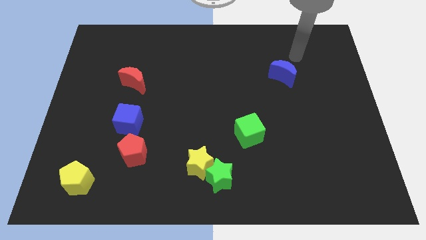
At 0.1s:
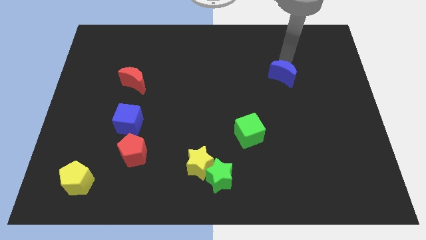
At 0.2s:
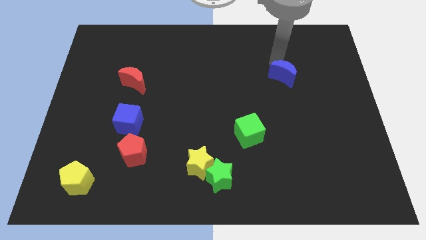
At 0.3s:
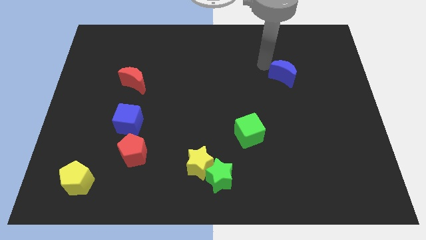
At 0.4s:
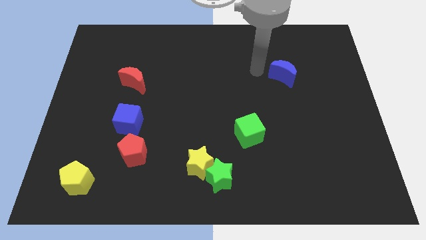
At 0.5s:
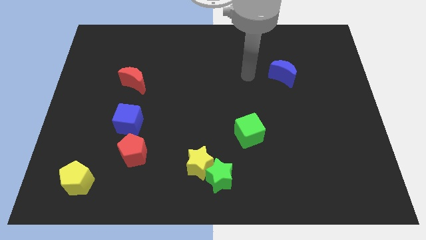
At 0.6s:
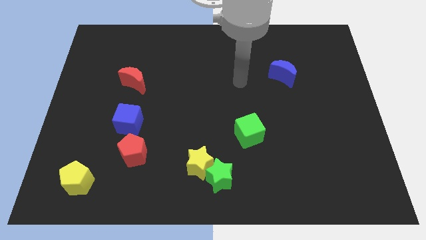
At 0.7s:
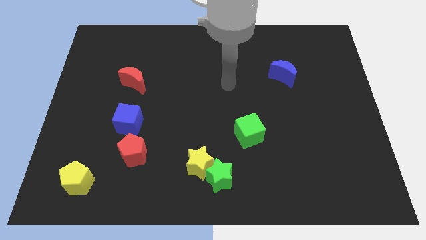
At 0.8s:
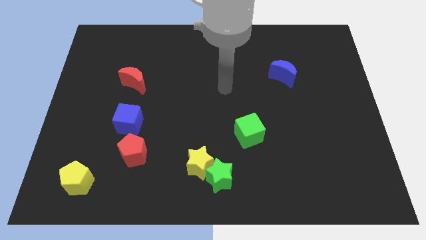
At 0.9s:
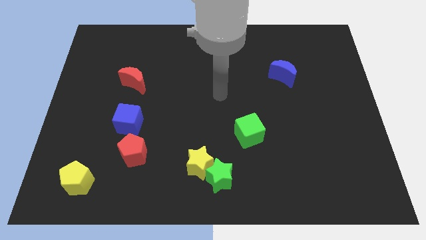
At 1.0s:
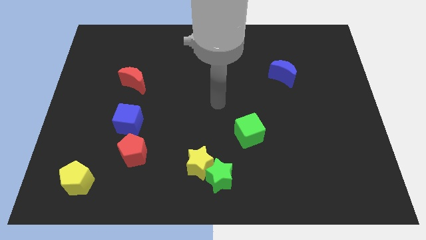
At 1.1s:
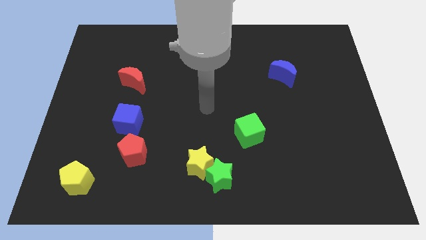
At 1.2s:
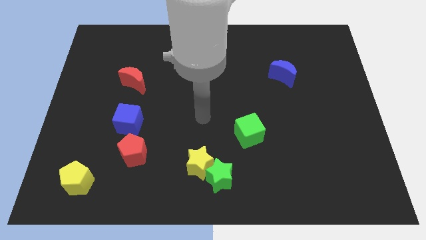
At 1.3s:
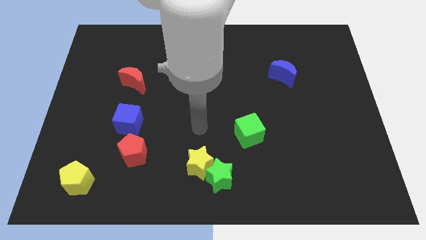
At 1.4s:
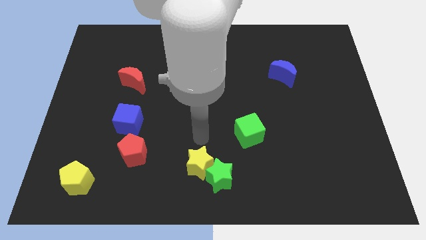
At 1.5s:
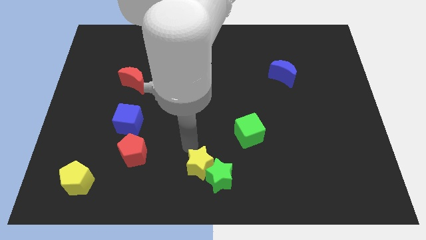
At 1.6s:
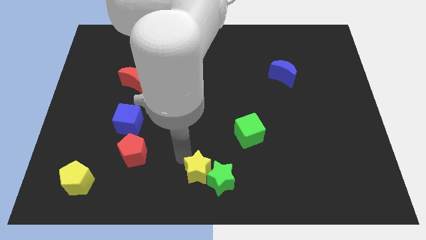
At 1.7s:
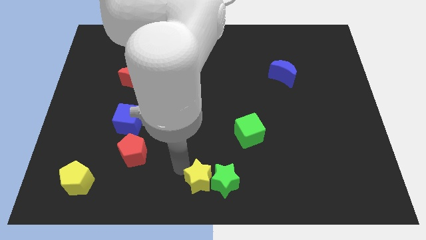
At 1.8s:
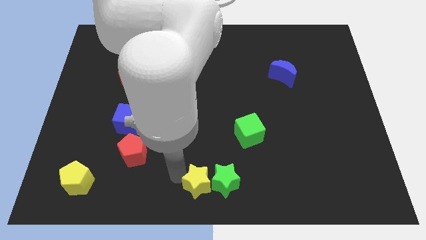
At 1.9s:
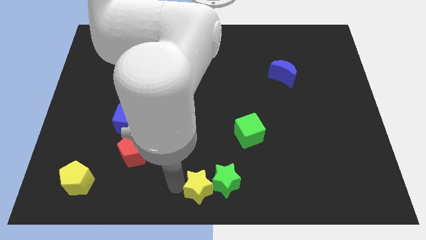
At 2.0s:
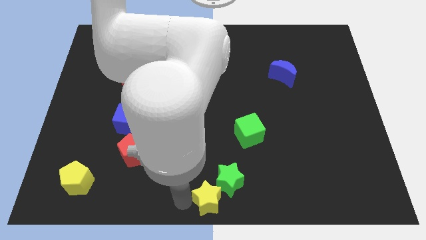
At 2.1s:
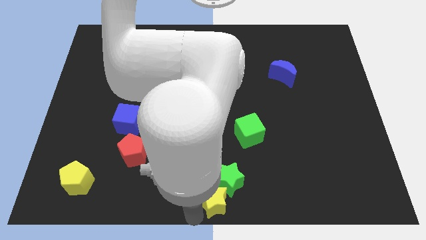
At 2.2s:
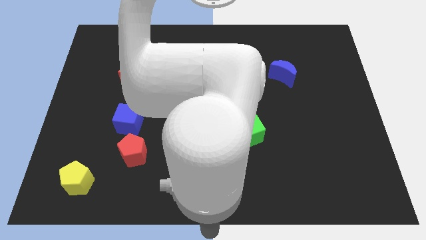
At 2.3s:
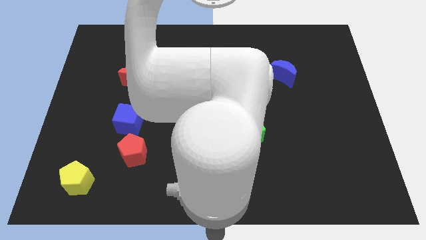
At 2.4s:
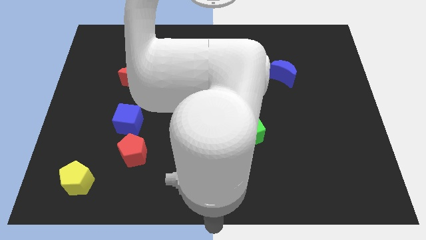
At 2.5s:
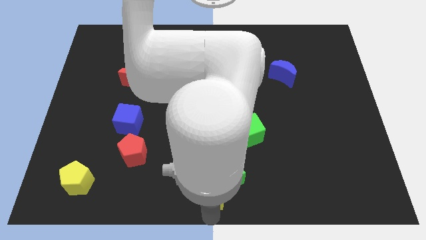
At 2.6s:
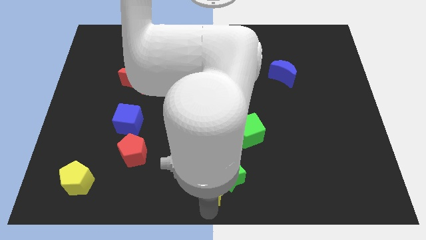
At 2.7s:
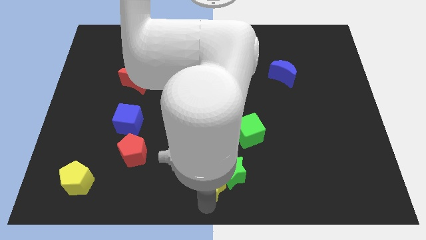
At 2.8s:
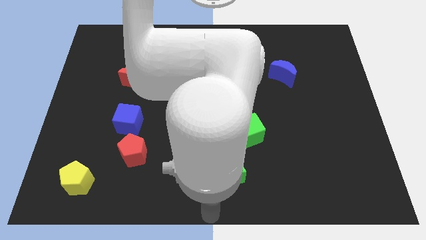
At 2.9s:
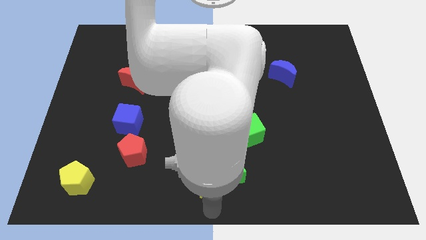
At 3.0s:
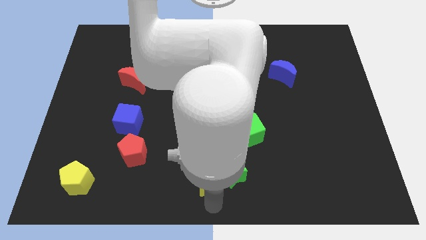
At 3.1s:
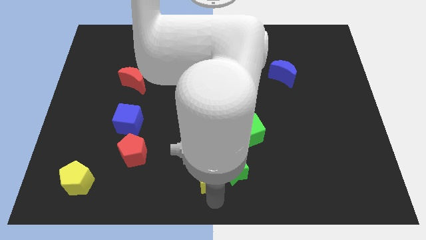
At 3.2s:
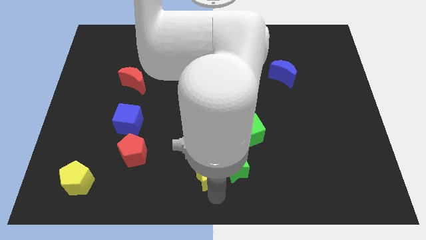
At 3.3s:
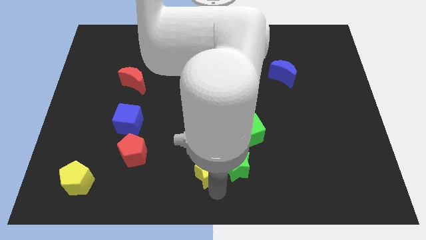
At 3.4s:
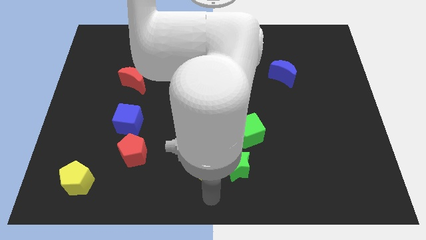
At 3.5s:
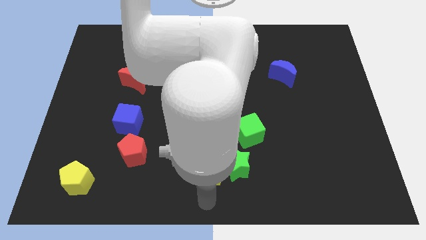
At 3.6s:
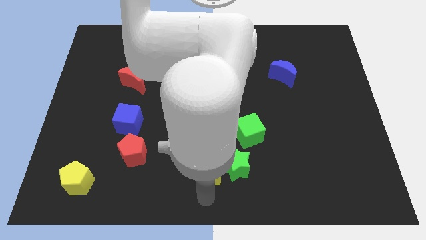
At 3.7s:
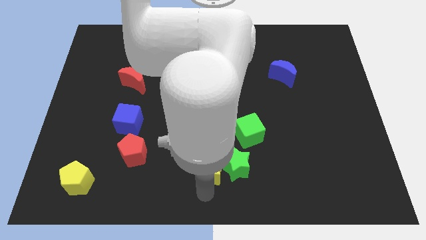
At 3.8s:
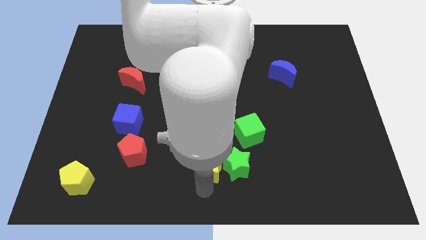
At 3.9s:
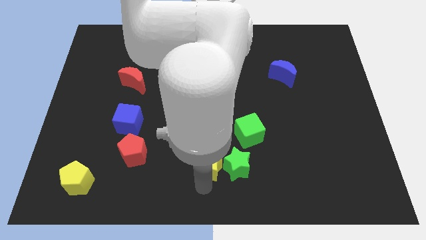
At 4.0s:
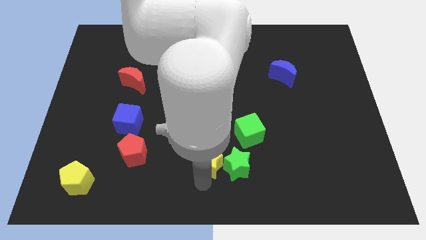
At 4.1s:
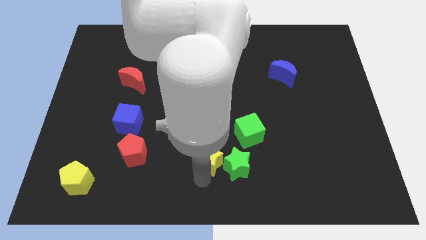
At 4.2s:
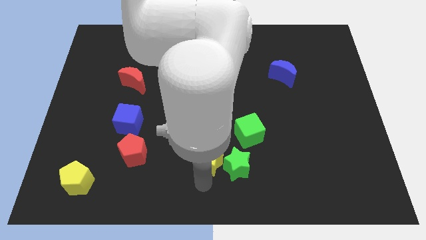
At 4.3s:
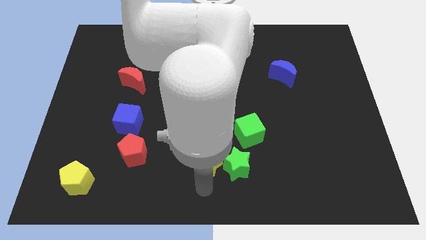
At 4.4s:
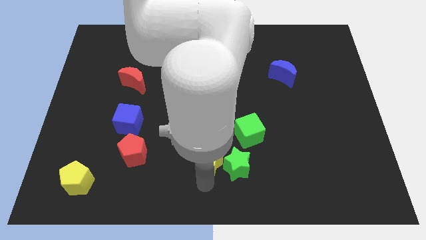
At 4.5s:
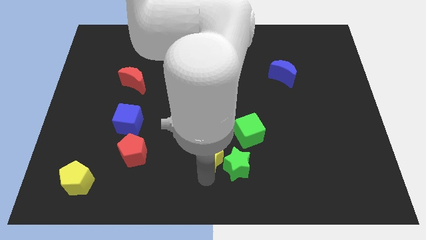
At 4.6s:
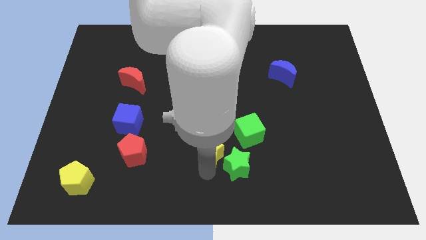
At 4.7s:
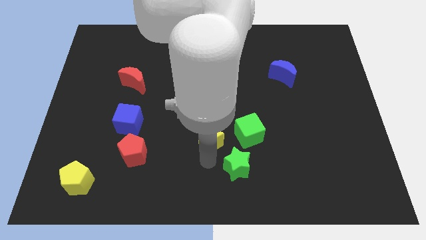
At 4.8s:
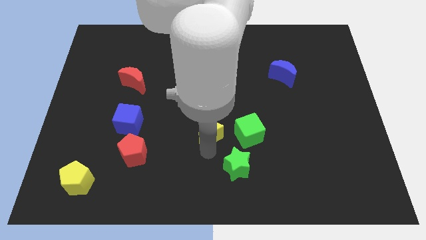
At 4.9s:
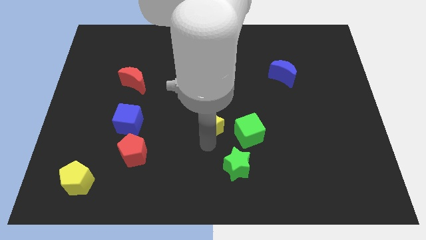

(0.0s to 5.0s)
put the yellow star to the top left side of the green cube

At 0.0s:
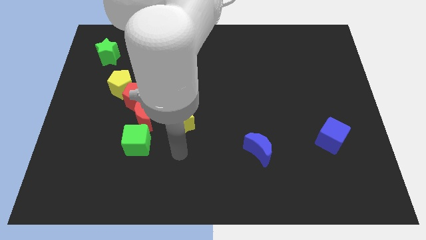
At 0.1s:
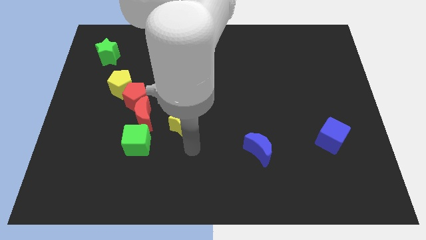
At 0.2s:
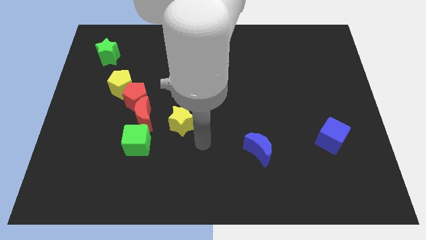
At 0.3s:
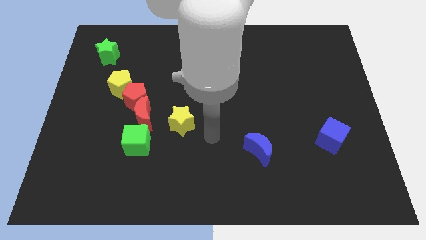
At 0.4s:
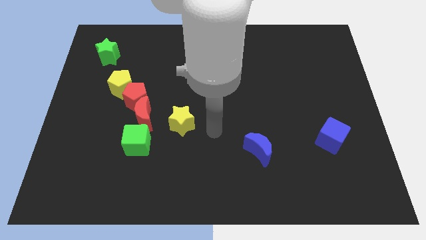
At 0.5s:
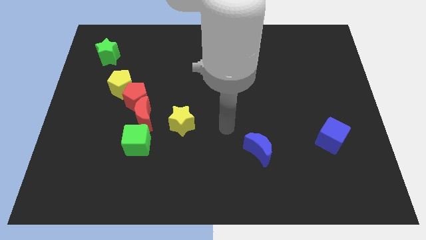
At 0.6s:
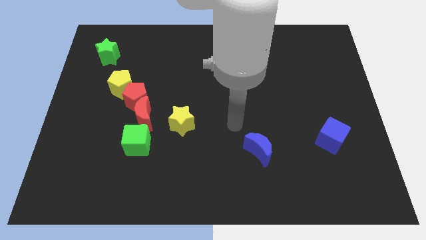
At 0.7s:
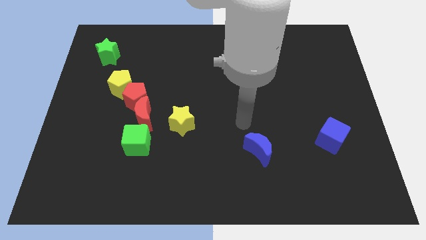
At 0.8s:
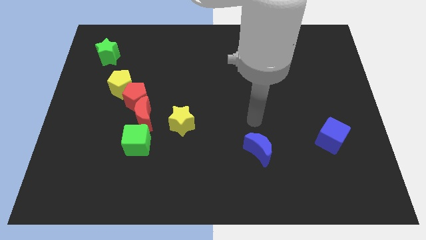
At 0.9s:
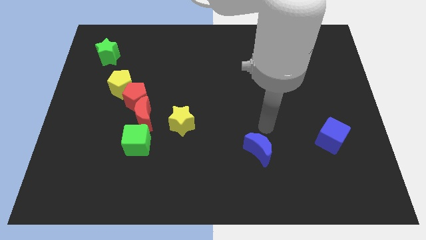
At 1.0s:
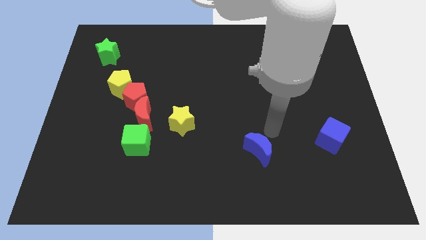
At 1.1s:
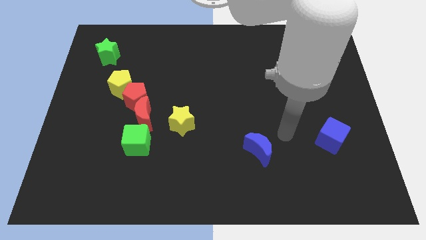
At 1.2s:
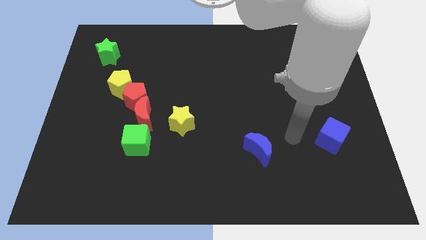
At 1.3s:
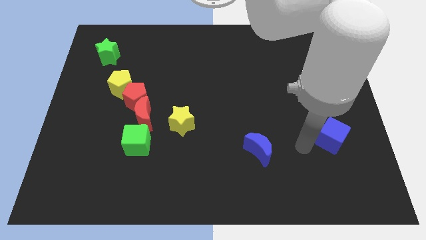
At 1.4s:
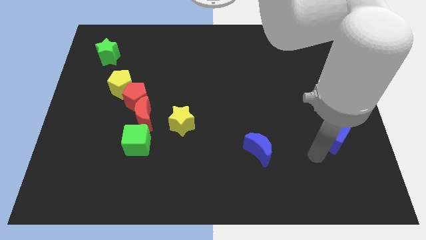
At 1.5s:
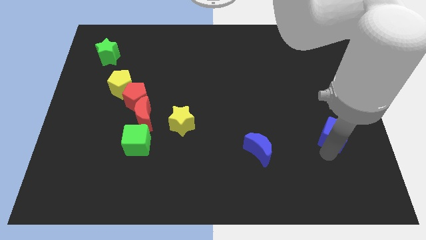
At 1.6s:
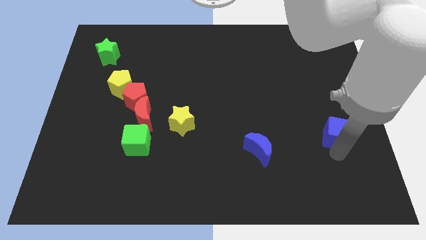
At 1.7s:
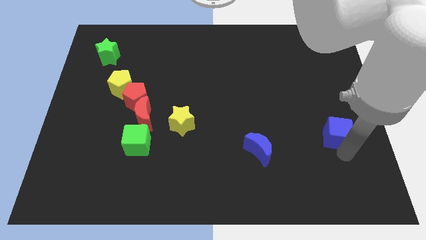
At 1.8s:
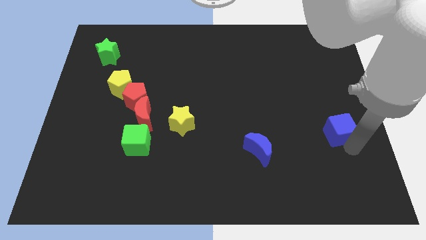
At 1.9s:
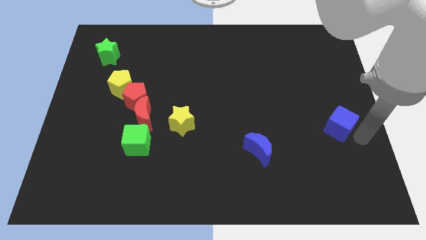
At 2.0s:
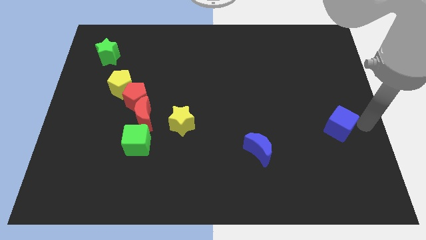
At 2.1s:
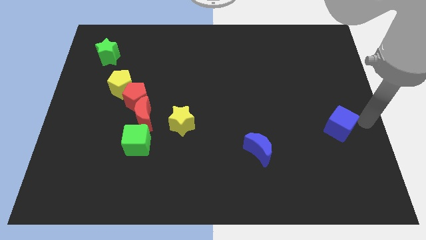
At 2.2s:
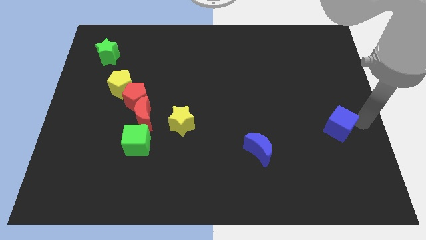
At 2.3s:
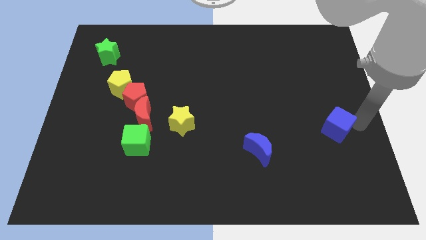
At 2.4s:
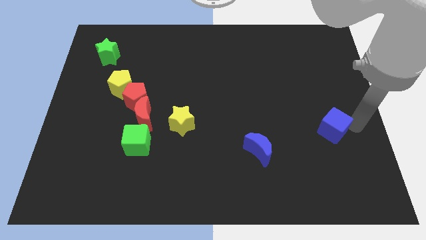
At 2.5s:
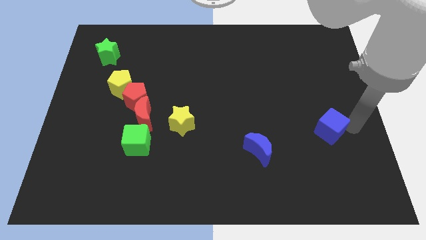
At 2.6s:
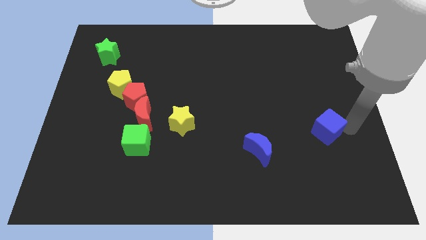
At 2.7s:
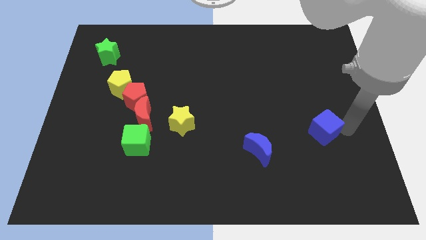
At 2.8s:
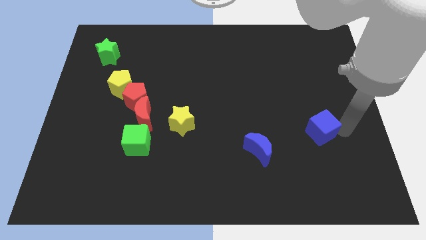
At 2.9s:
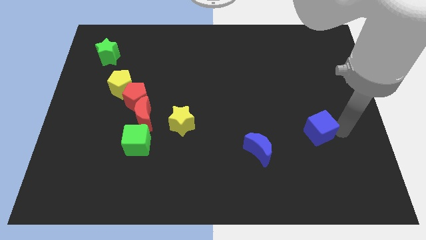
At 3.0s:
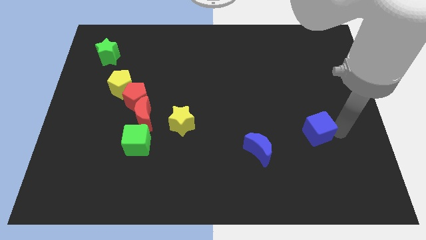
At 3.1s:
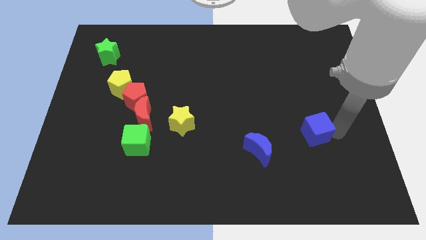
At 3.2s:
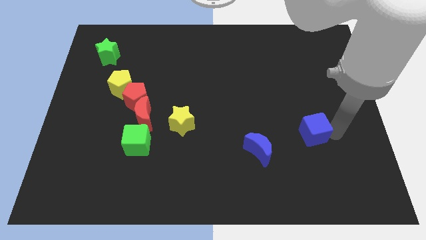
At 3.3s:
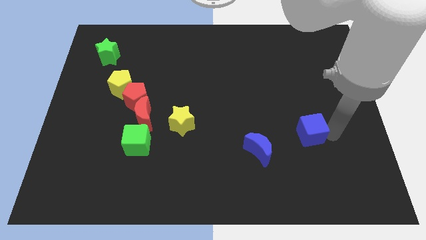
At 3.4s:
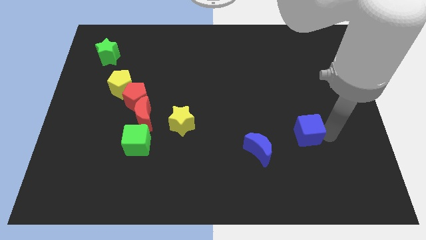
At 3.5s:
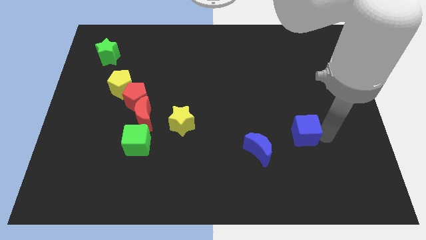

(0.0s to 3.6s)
put the blue cube to the top right of the blue moon
